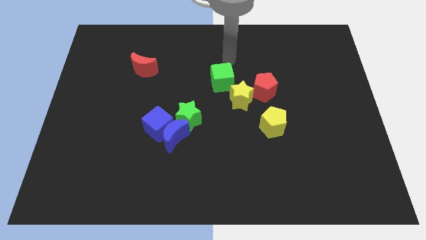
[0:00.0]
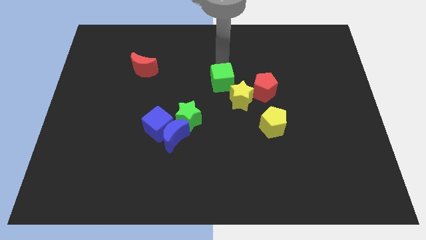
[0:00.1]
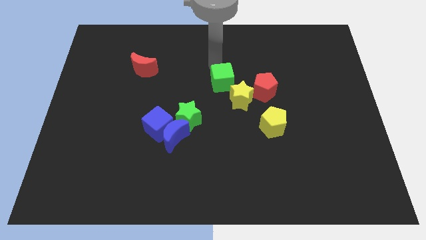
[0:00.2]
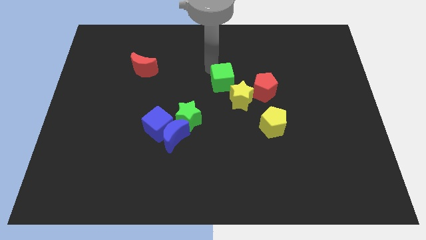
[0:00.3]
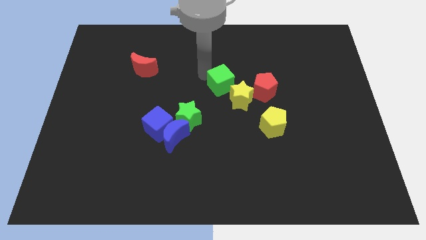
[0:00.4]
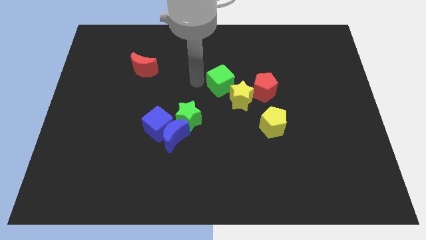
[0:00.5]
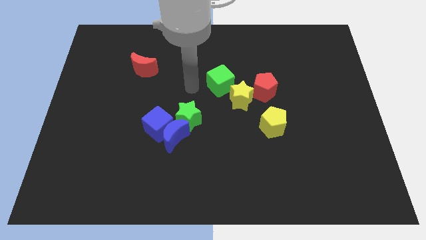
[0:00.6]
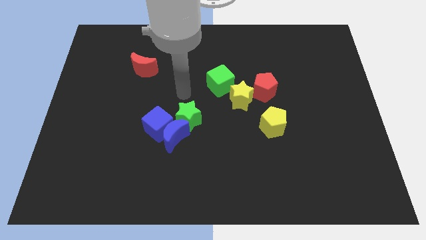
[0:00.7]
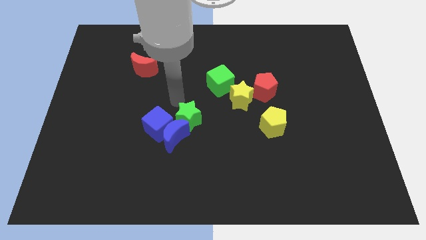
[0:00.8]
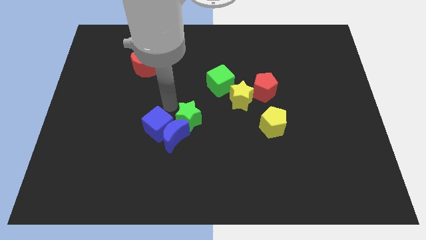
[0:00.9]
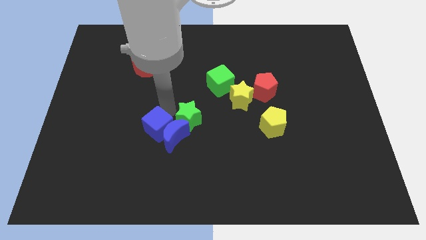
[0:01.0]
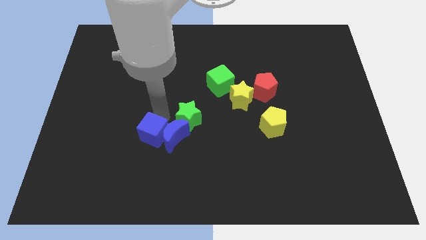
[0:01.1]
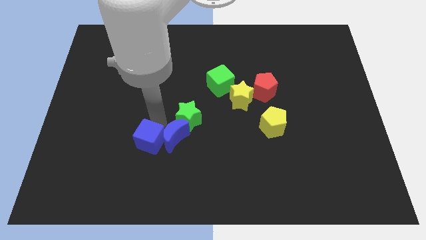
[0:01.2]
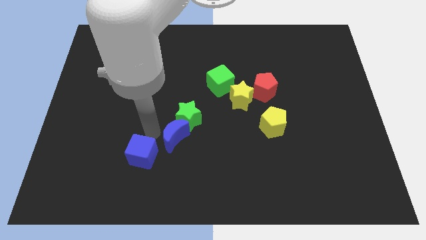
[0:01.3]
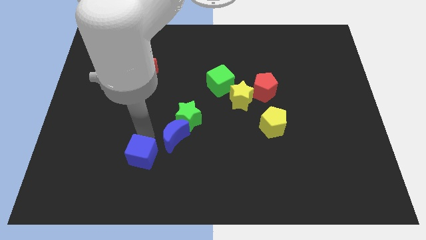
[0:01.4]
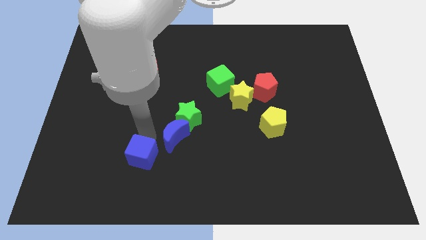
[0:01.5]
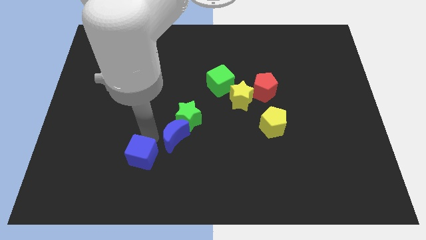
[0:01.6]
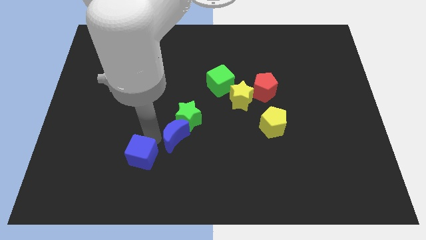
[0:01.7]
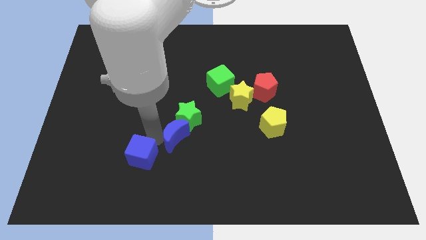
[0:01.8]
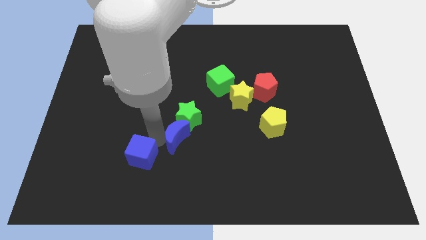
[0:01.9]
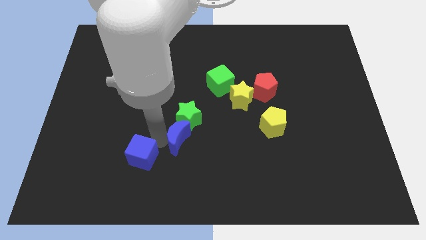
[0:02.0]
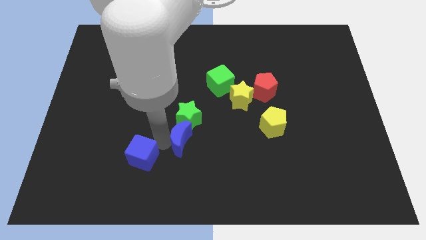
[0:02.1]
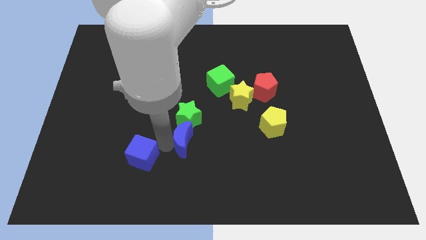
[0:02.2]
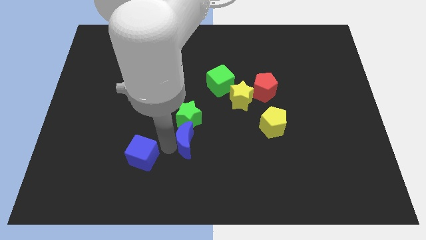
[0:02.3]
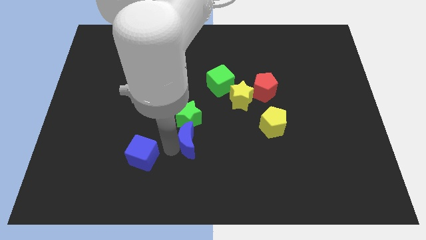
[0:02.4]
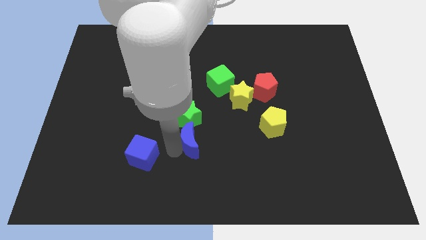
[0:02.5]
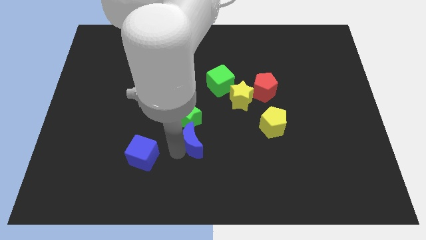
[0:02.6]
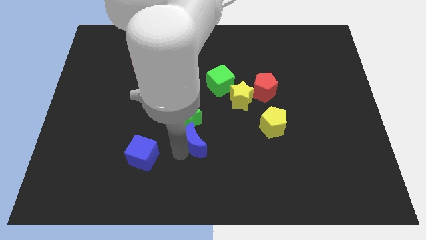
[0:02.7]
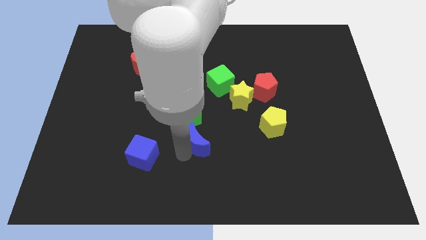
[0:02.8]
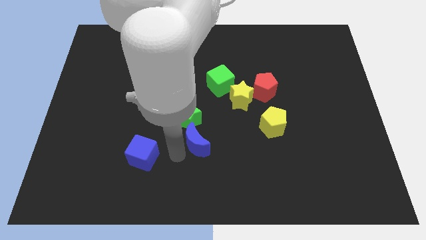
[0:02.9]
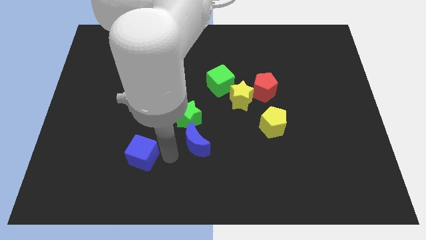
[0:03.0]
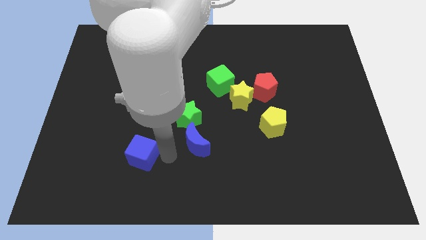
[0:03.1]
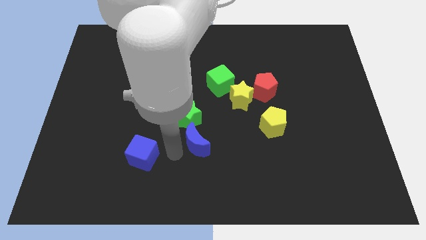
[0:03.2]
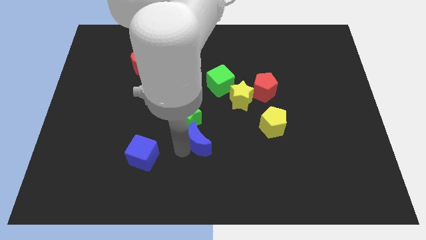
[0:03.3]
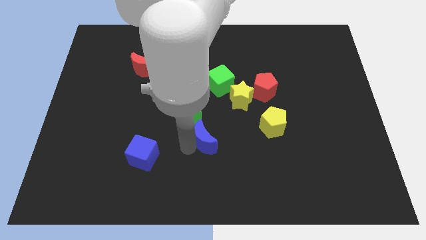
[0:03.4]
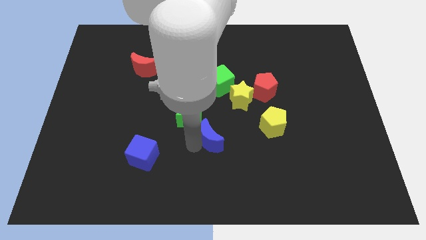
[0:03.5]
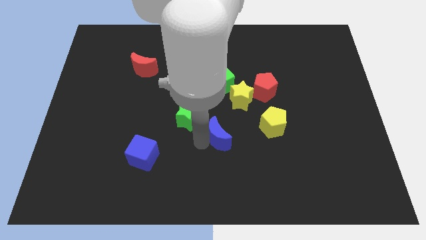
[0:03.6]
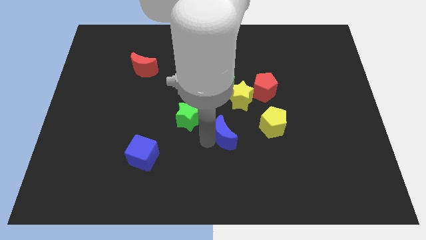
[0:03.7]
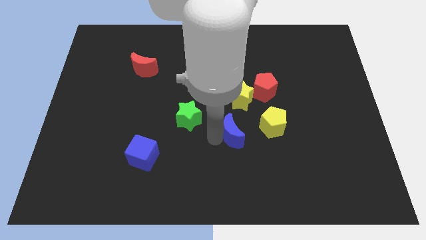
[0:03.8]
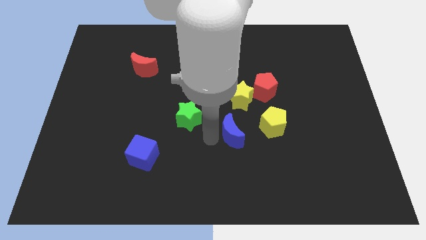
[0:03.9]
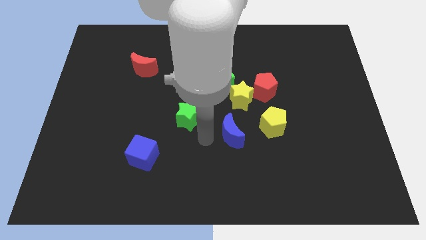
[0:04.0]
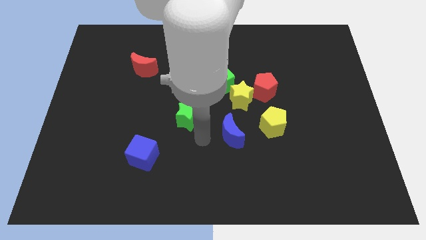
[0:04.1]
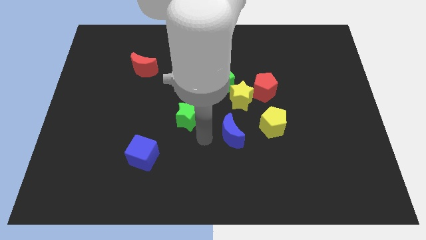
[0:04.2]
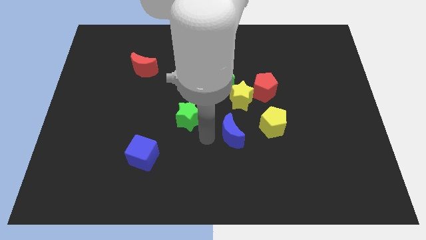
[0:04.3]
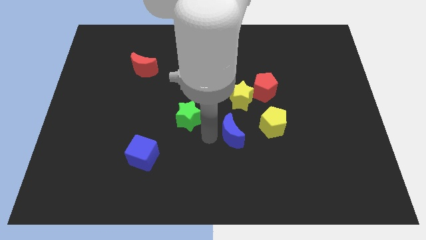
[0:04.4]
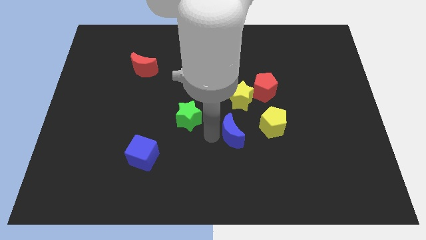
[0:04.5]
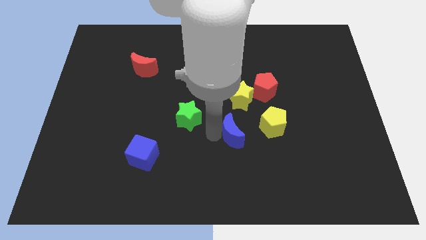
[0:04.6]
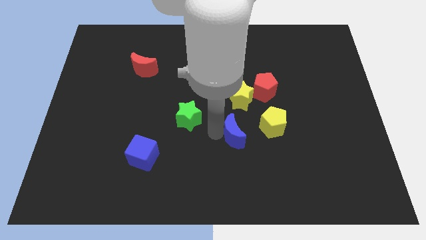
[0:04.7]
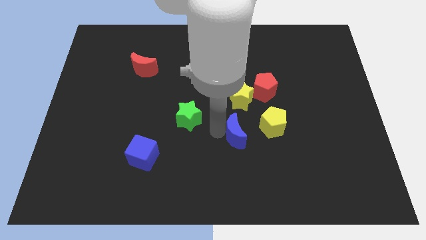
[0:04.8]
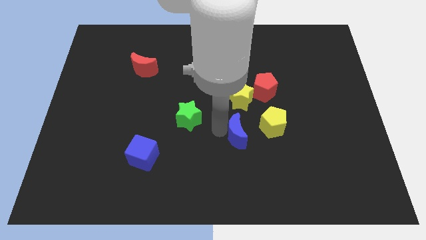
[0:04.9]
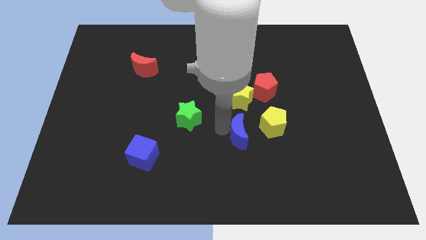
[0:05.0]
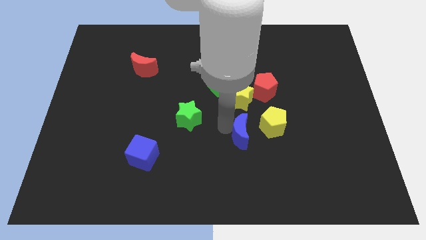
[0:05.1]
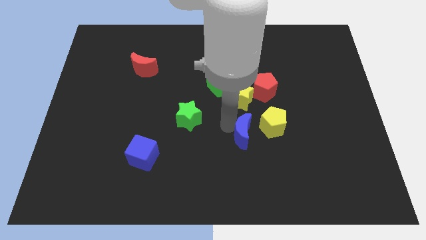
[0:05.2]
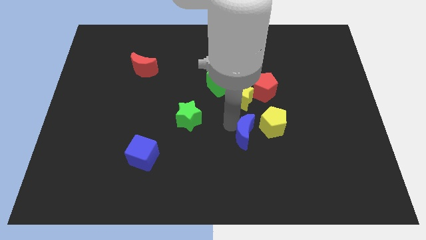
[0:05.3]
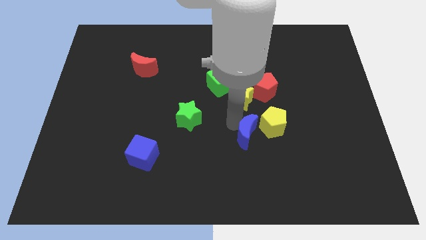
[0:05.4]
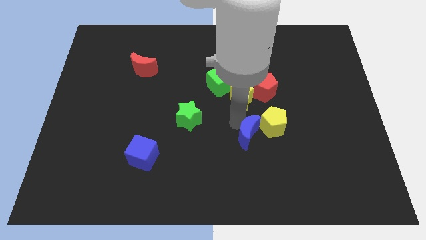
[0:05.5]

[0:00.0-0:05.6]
move the blue moon to the bottom side of the red pentagon

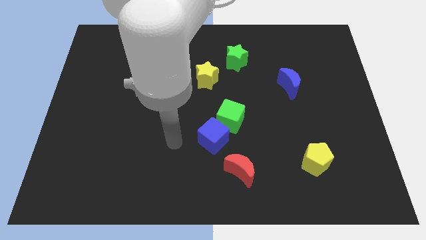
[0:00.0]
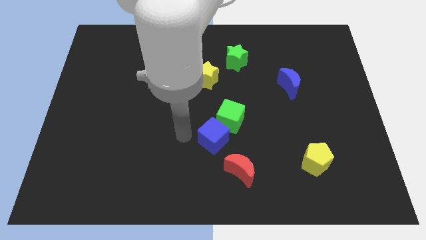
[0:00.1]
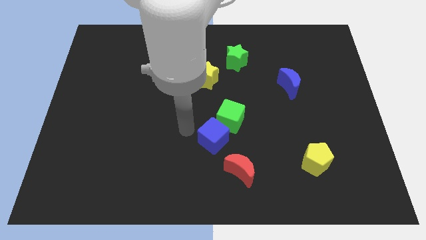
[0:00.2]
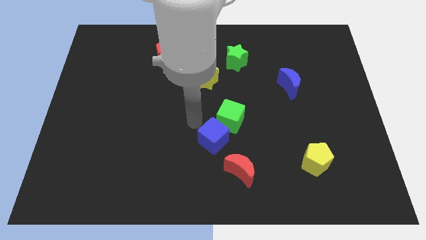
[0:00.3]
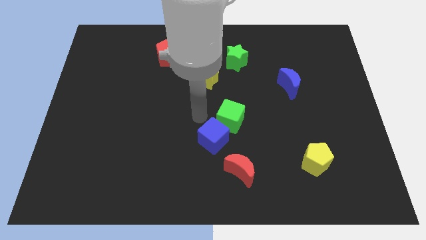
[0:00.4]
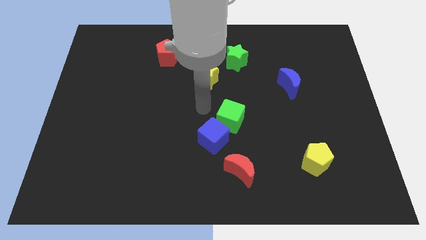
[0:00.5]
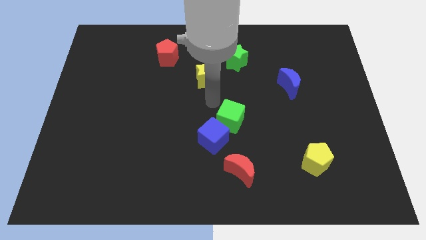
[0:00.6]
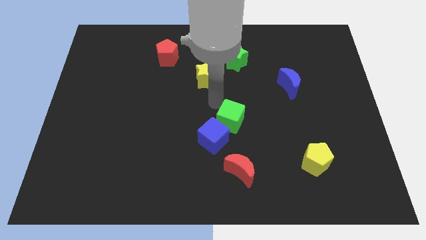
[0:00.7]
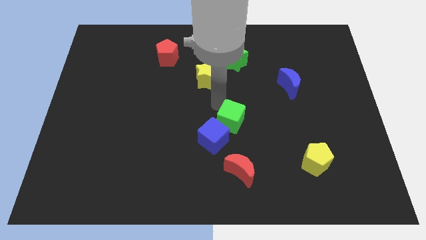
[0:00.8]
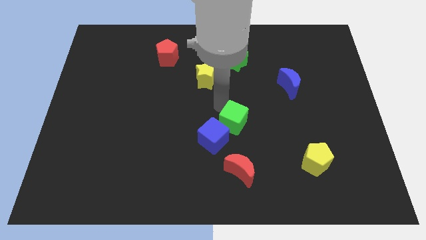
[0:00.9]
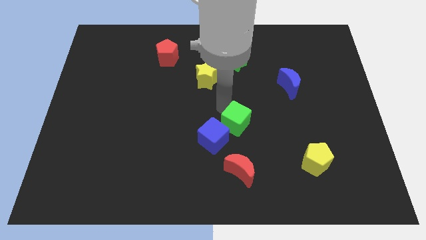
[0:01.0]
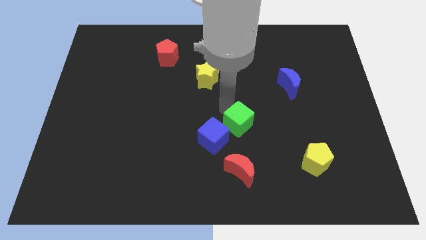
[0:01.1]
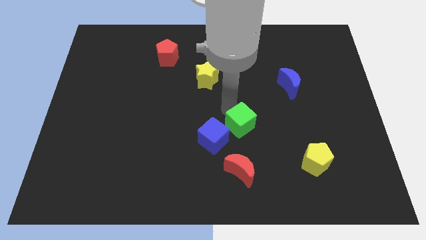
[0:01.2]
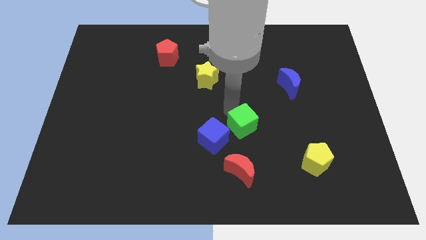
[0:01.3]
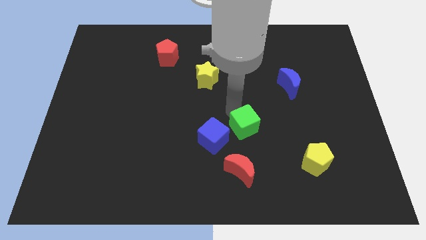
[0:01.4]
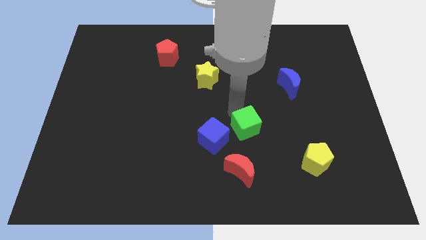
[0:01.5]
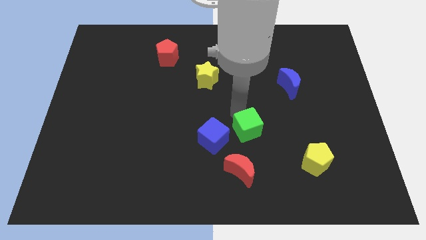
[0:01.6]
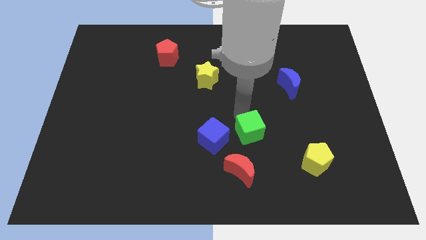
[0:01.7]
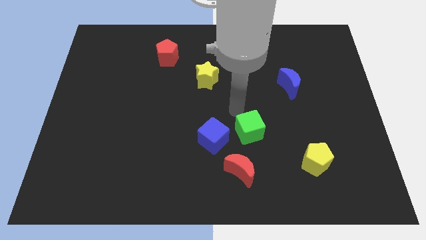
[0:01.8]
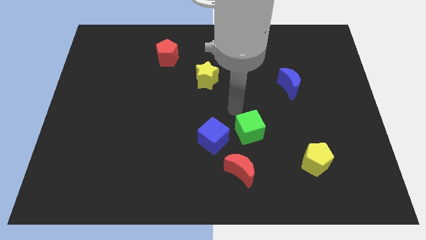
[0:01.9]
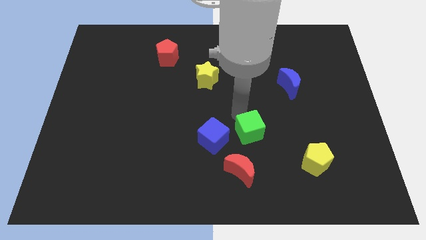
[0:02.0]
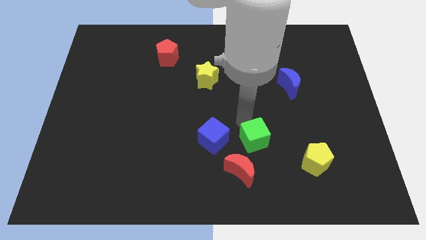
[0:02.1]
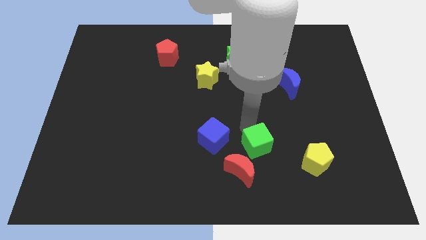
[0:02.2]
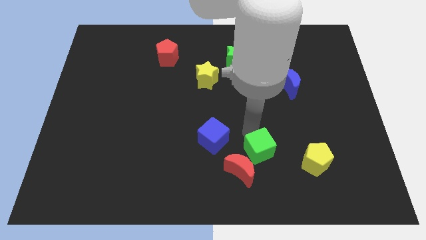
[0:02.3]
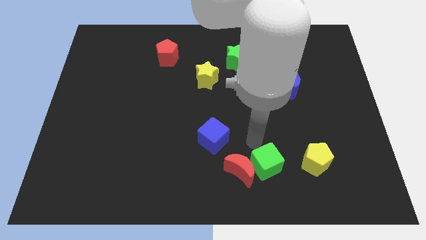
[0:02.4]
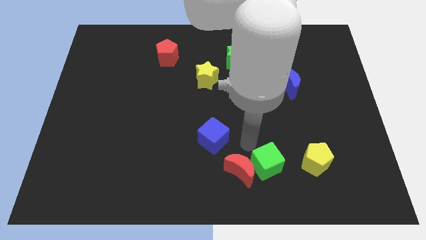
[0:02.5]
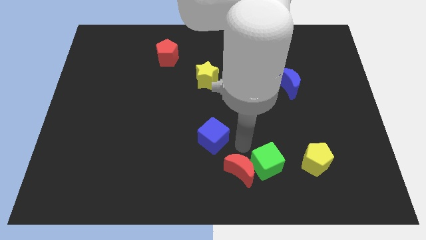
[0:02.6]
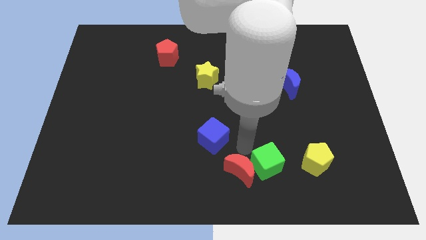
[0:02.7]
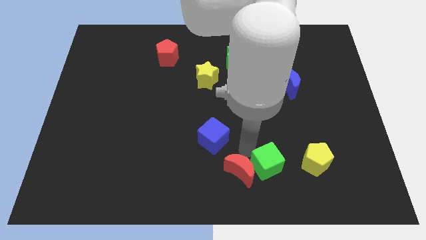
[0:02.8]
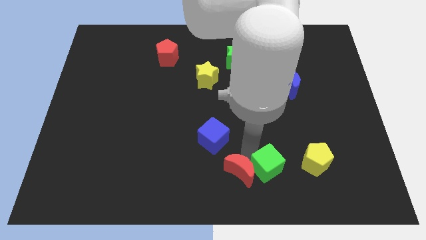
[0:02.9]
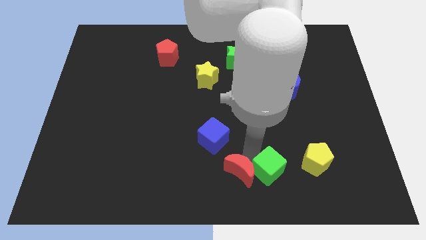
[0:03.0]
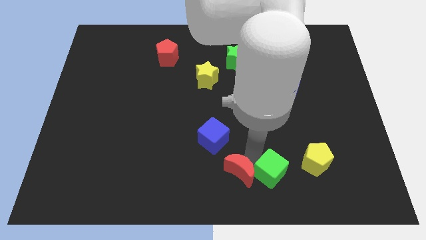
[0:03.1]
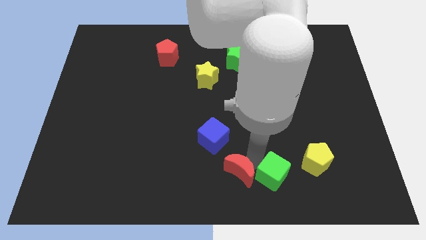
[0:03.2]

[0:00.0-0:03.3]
move the green cube to the bottom left side of the yellow pentagon

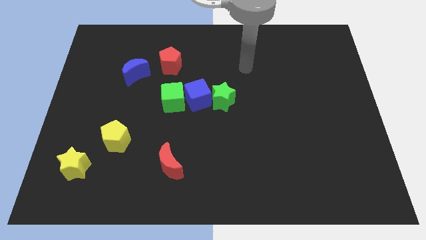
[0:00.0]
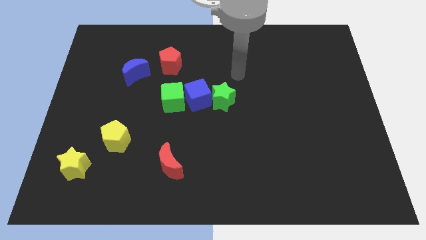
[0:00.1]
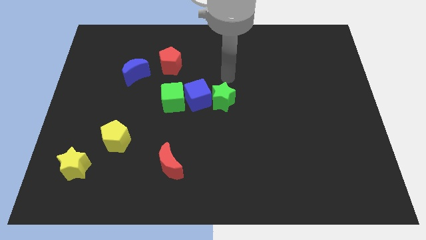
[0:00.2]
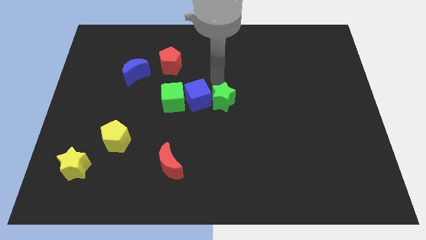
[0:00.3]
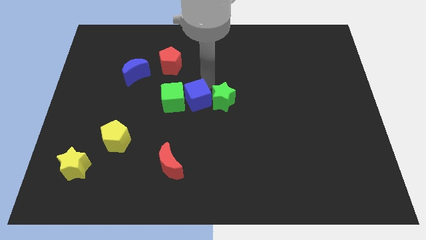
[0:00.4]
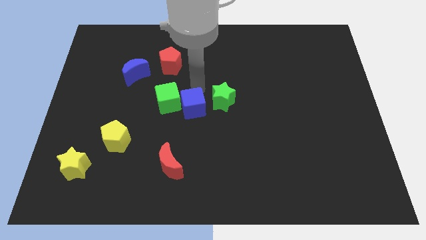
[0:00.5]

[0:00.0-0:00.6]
move the green cube diagonally down and to the right of the blue moon
